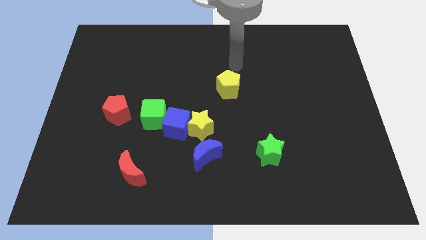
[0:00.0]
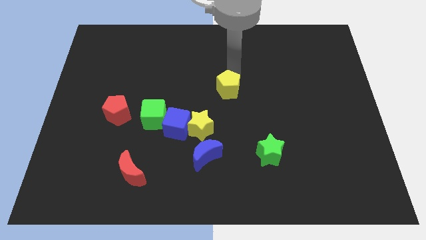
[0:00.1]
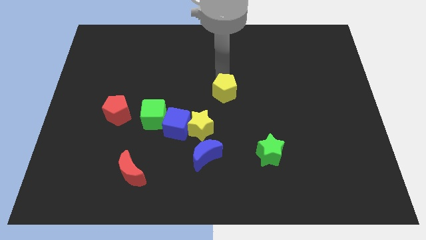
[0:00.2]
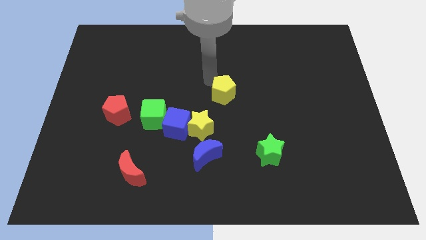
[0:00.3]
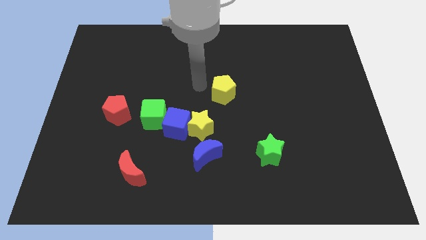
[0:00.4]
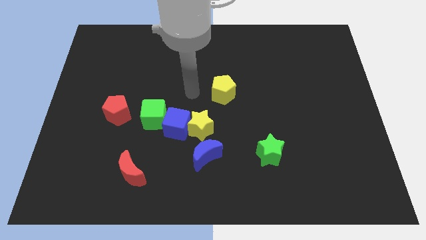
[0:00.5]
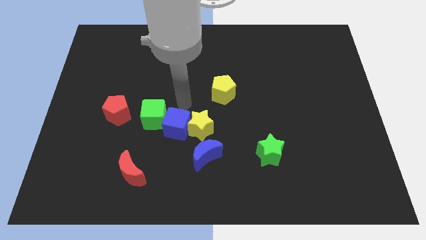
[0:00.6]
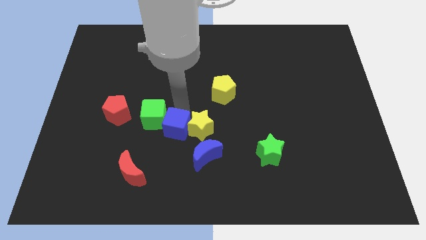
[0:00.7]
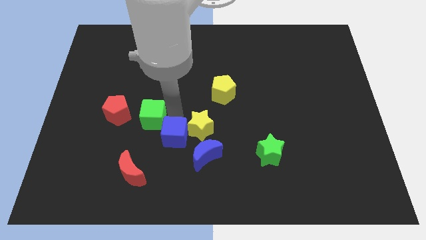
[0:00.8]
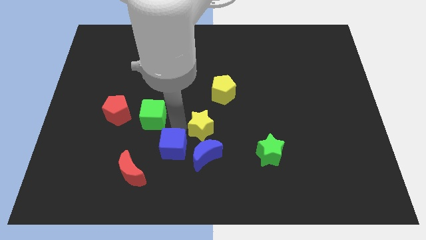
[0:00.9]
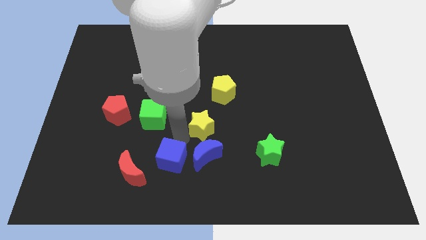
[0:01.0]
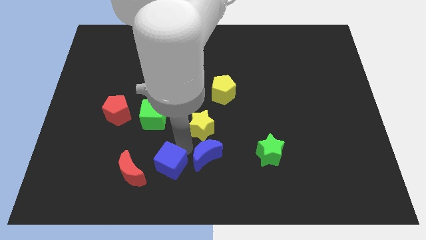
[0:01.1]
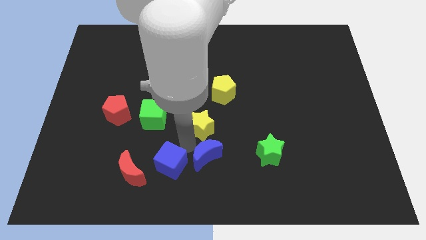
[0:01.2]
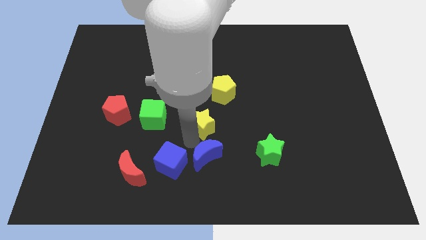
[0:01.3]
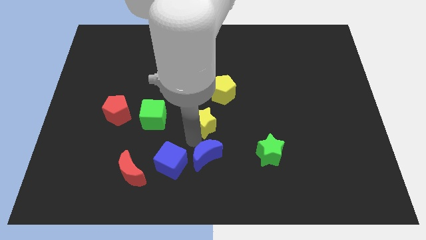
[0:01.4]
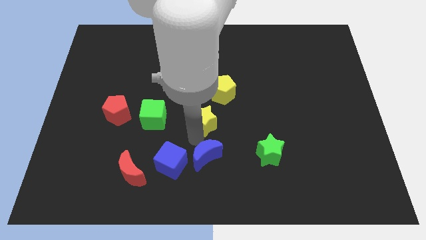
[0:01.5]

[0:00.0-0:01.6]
pull the yellow star apart from the blue cube and blue moon

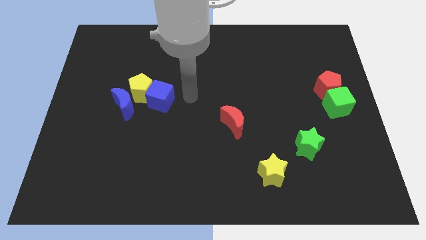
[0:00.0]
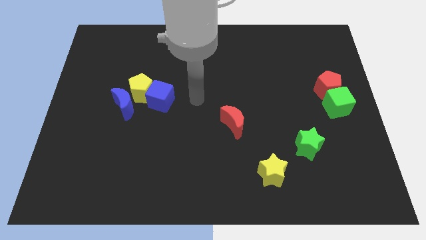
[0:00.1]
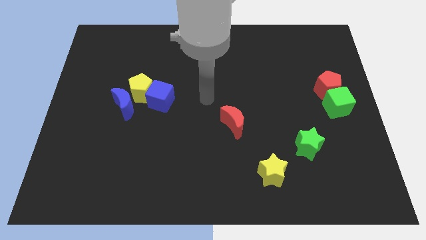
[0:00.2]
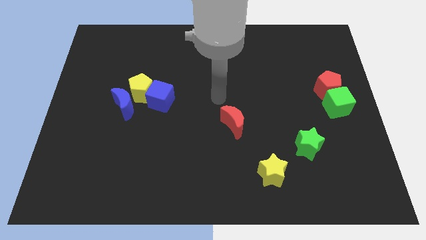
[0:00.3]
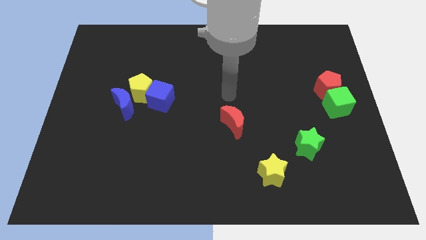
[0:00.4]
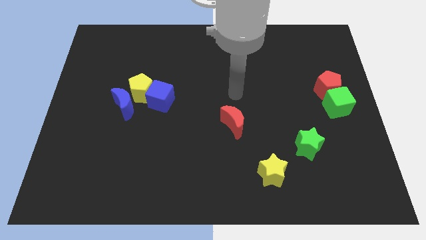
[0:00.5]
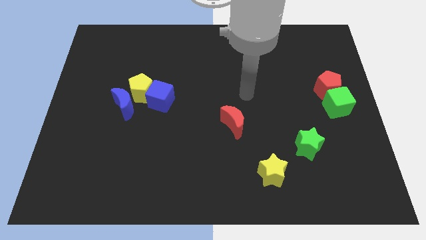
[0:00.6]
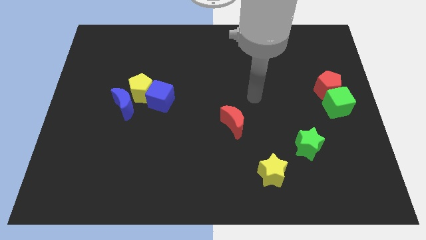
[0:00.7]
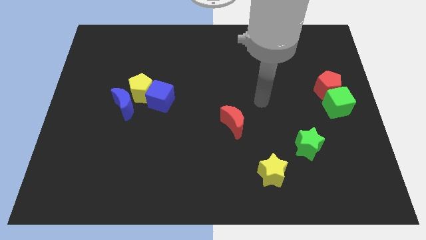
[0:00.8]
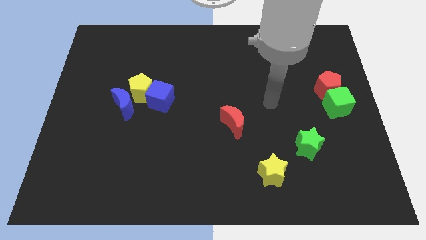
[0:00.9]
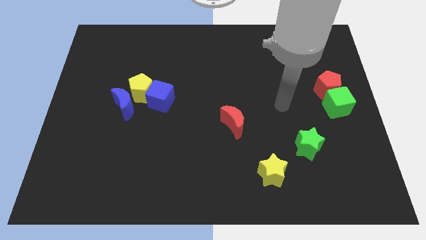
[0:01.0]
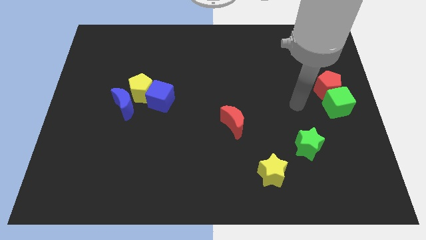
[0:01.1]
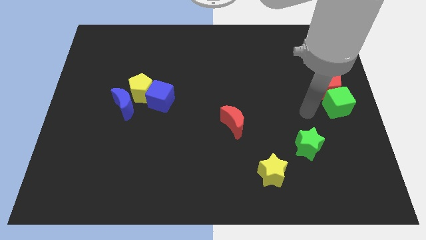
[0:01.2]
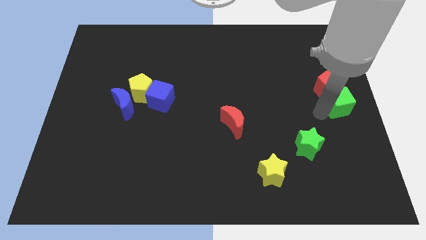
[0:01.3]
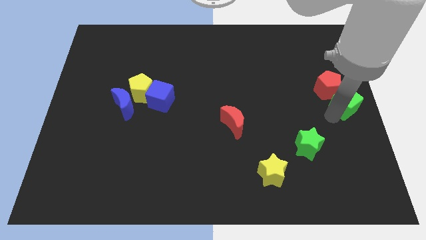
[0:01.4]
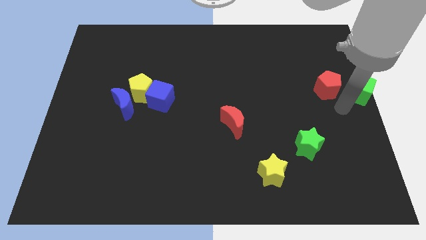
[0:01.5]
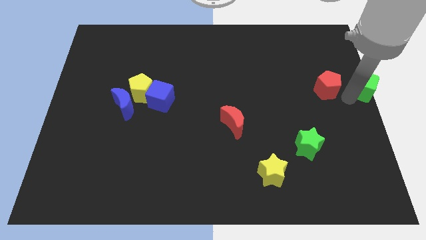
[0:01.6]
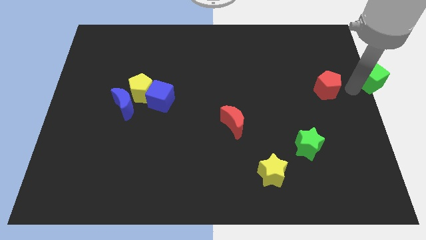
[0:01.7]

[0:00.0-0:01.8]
move the red pentagon away from the green cube

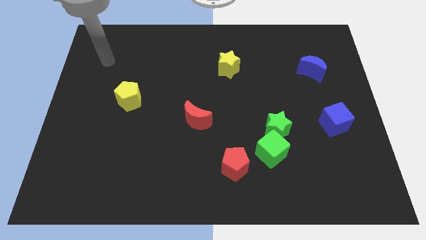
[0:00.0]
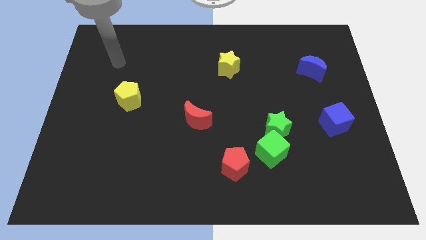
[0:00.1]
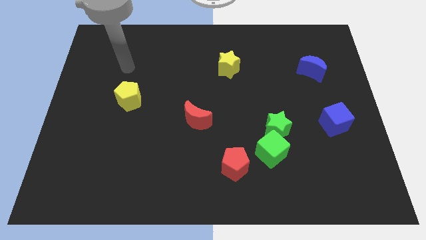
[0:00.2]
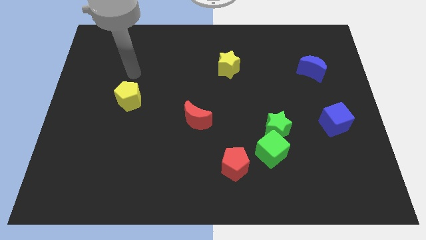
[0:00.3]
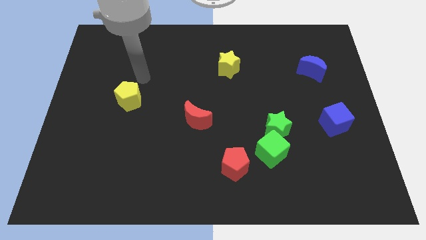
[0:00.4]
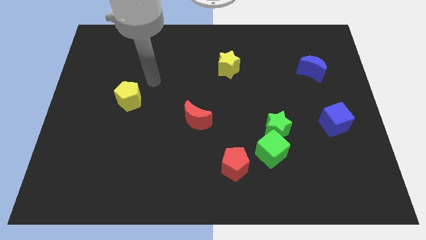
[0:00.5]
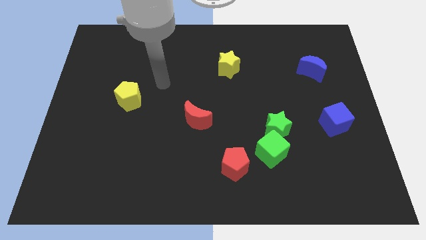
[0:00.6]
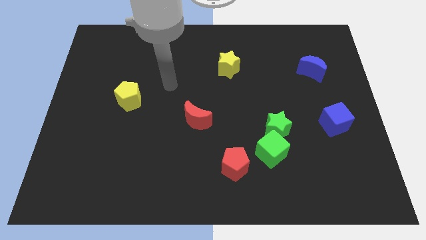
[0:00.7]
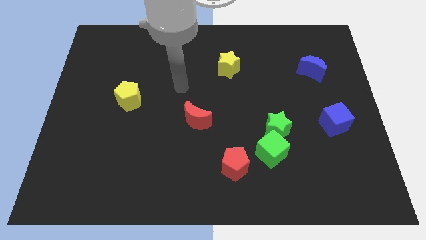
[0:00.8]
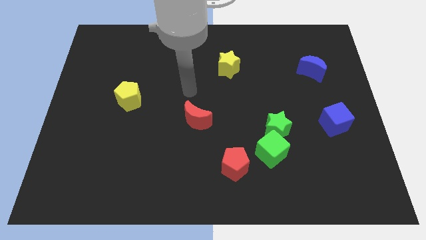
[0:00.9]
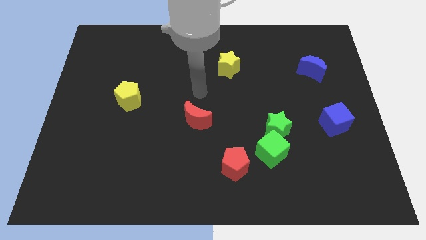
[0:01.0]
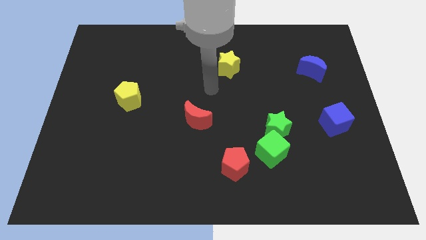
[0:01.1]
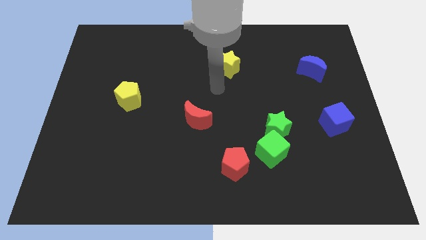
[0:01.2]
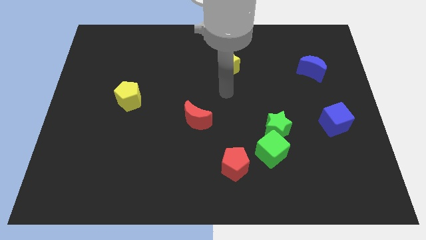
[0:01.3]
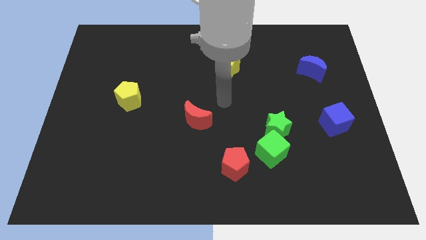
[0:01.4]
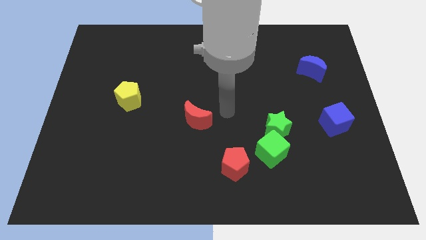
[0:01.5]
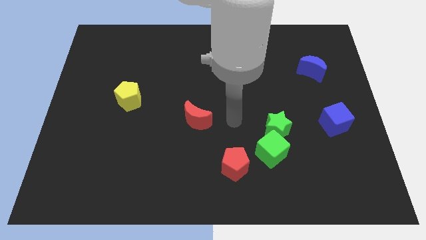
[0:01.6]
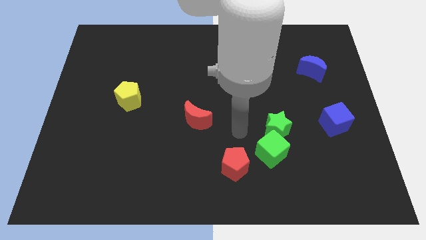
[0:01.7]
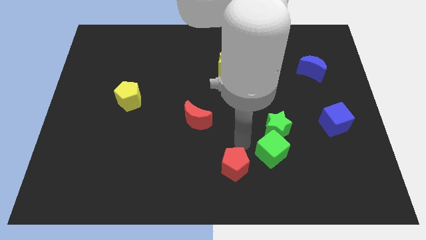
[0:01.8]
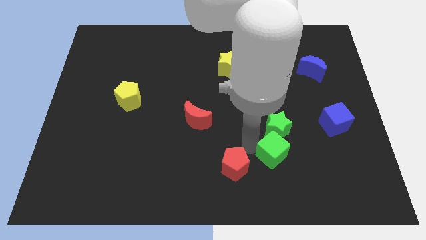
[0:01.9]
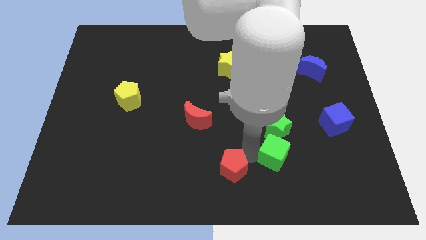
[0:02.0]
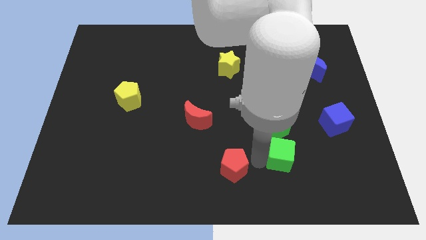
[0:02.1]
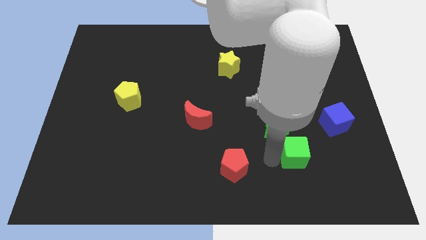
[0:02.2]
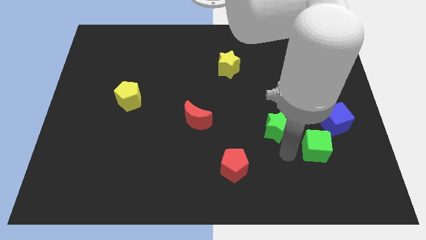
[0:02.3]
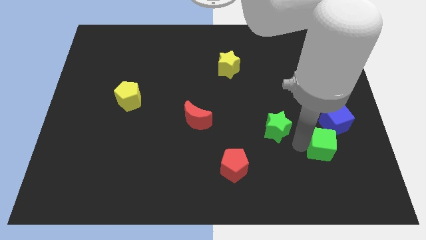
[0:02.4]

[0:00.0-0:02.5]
pull the green star apart from the green cube

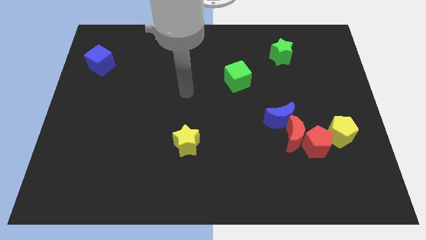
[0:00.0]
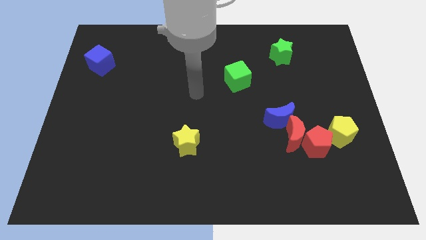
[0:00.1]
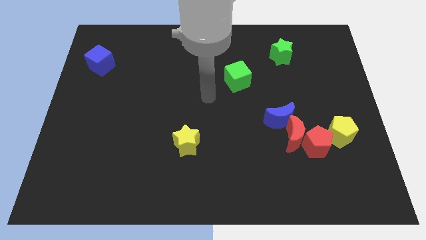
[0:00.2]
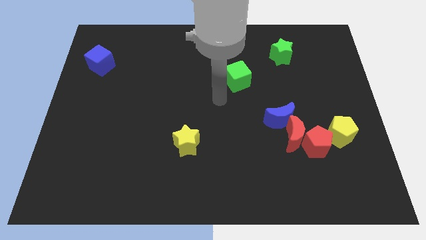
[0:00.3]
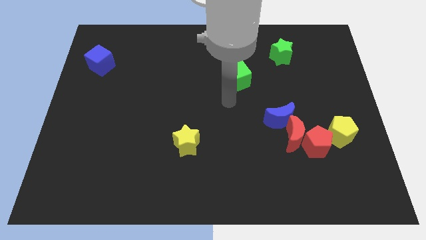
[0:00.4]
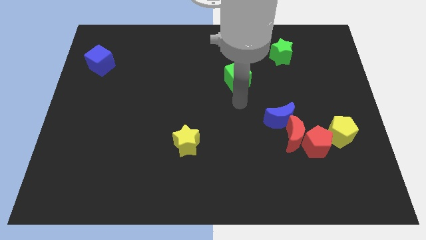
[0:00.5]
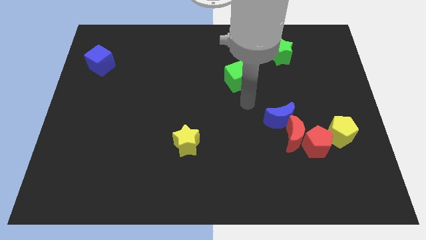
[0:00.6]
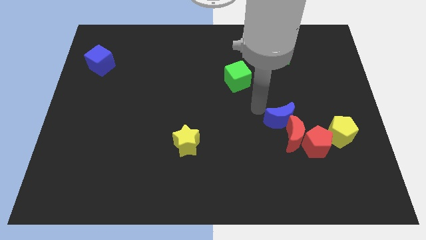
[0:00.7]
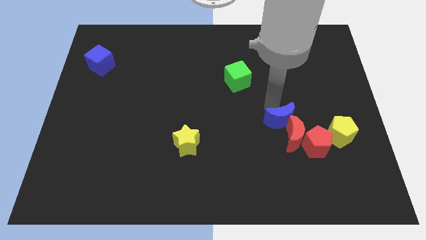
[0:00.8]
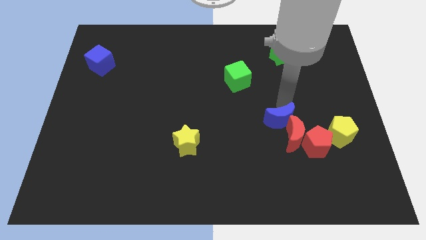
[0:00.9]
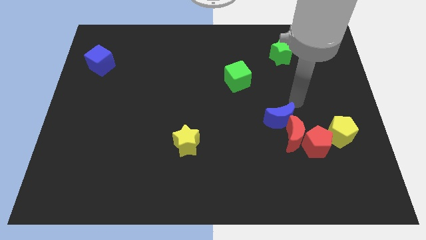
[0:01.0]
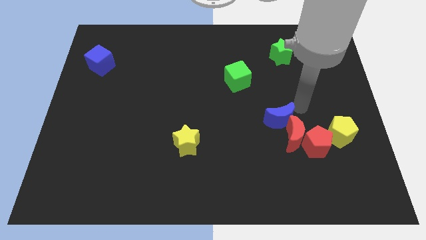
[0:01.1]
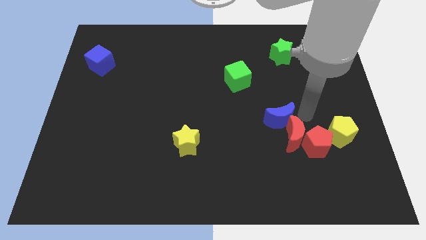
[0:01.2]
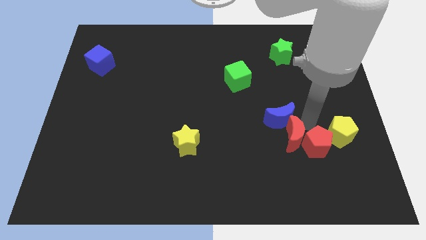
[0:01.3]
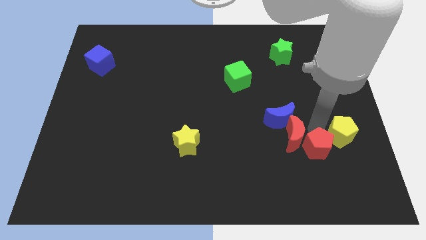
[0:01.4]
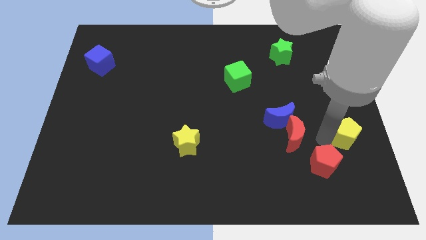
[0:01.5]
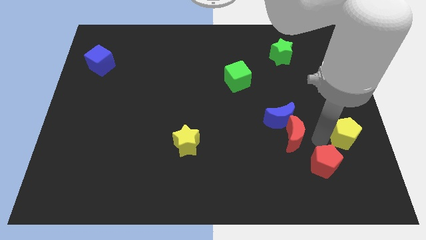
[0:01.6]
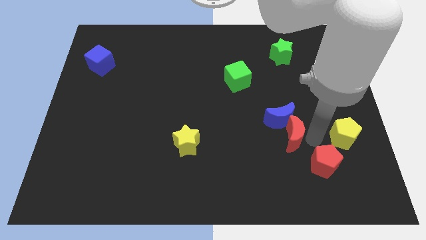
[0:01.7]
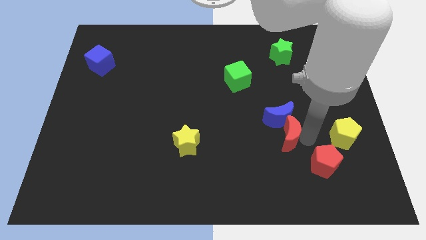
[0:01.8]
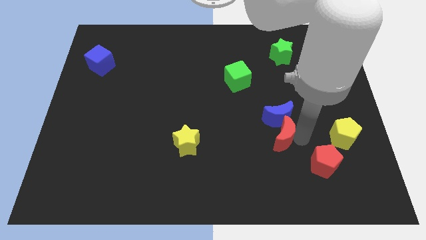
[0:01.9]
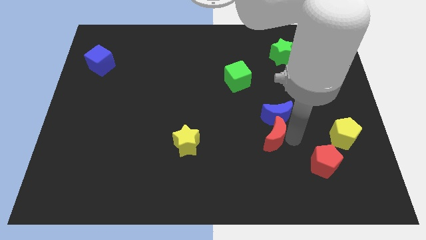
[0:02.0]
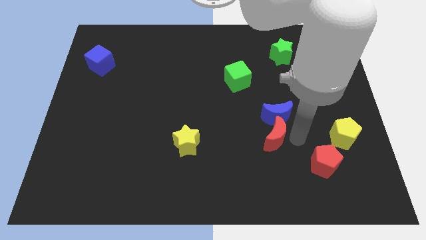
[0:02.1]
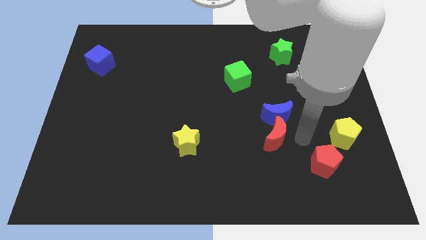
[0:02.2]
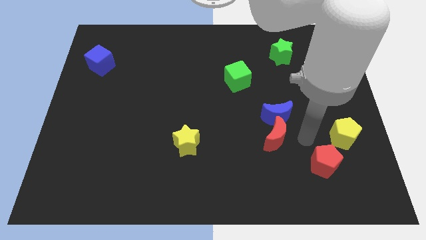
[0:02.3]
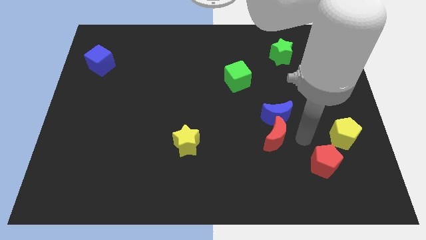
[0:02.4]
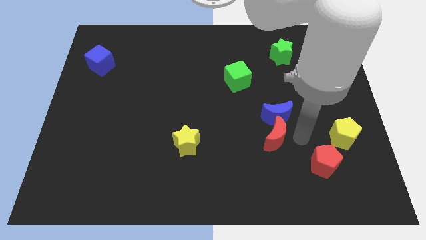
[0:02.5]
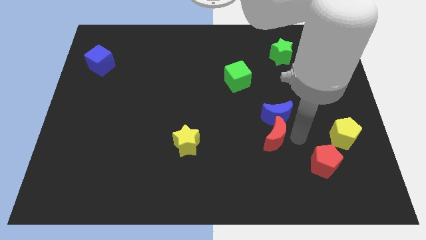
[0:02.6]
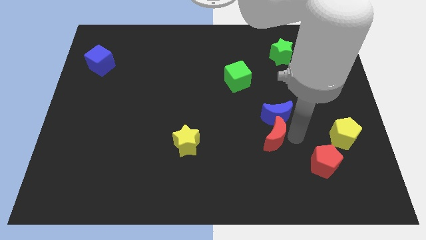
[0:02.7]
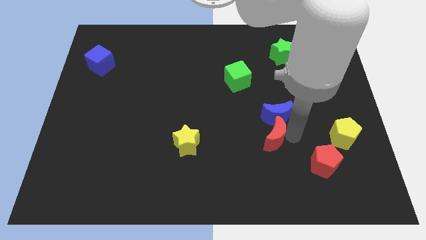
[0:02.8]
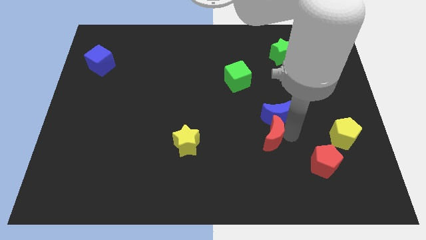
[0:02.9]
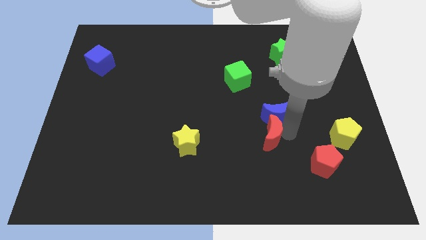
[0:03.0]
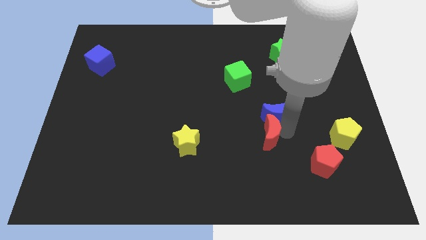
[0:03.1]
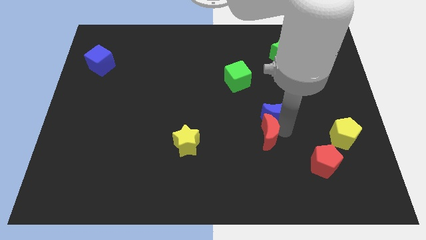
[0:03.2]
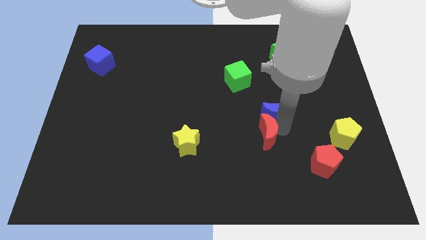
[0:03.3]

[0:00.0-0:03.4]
pull the red moon apart from the group of blocks

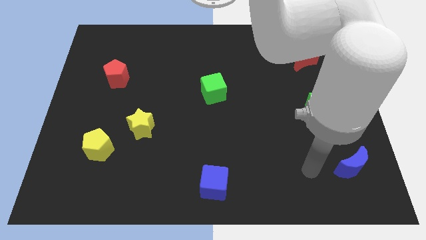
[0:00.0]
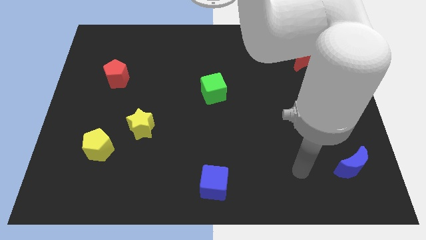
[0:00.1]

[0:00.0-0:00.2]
pull the yellow star apart from the yellow pentagon
